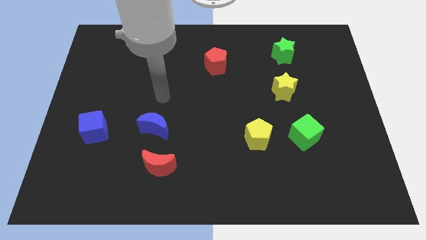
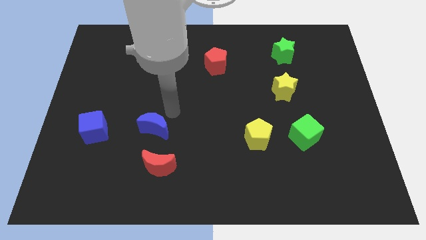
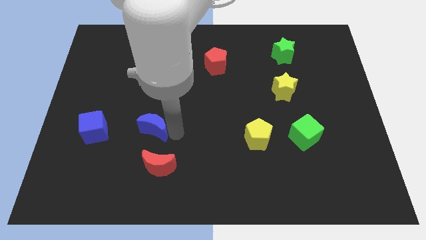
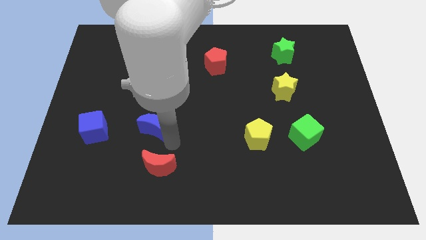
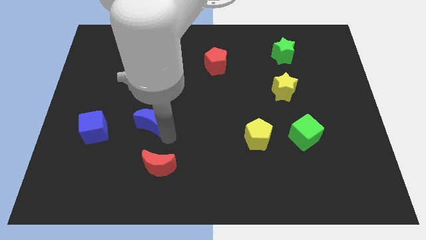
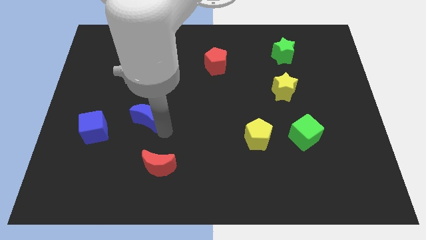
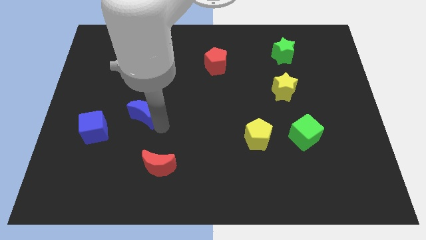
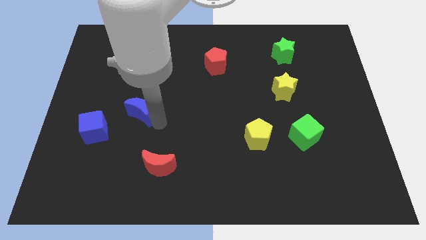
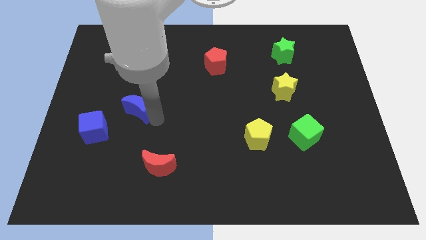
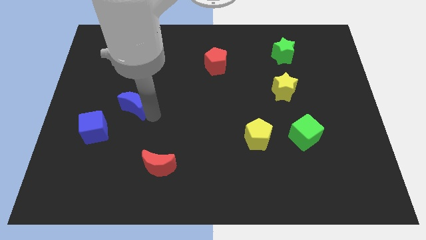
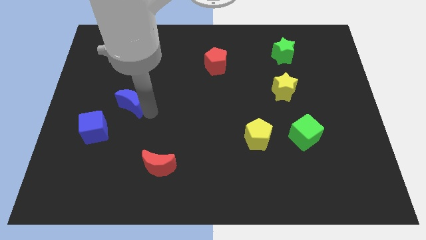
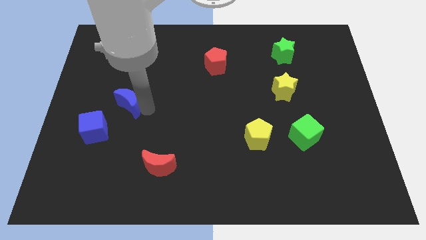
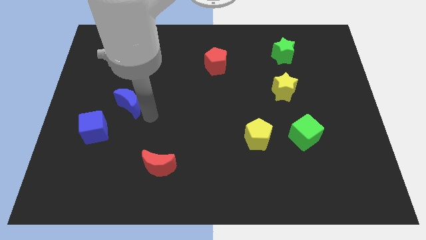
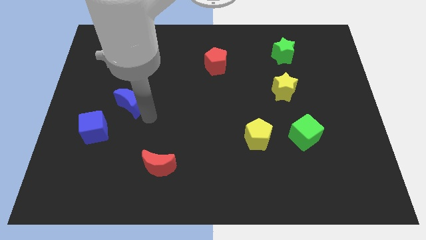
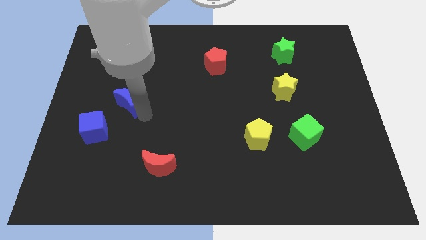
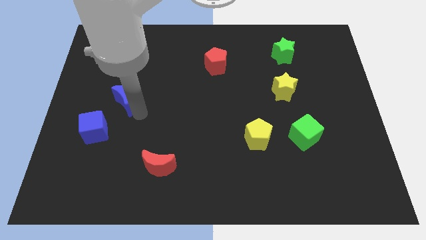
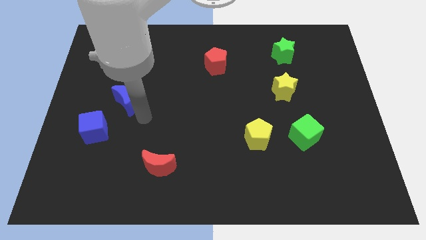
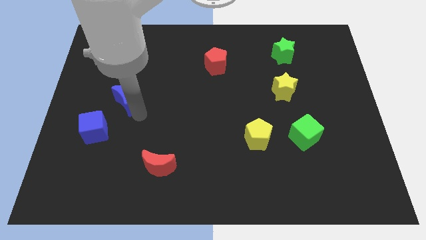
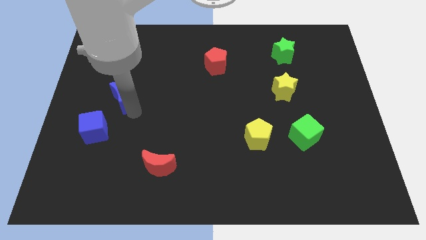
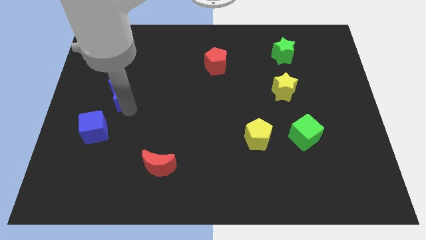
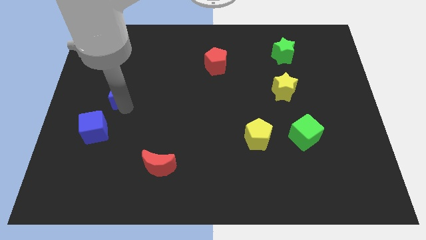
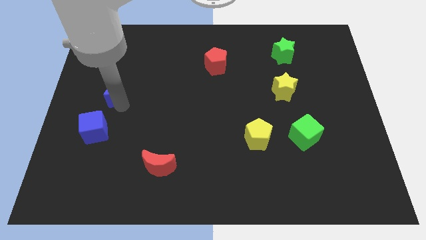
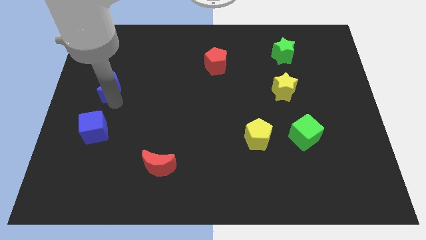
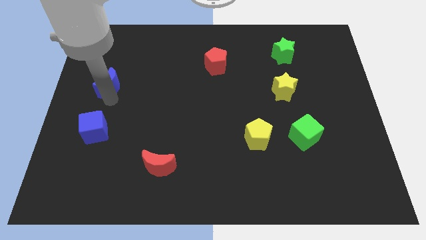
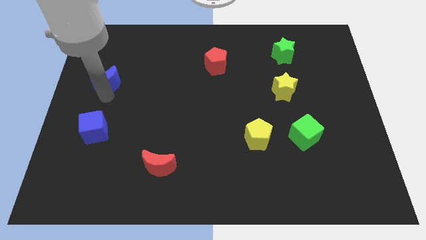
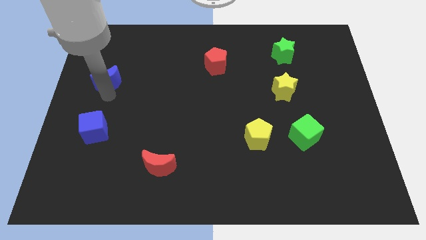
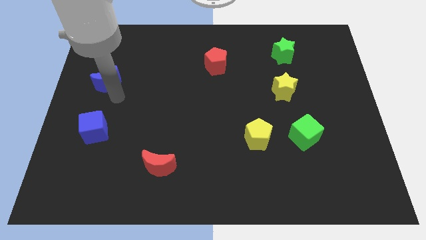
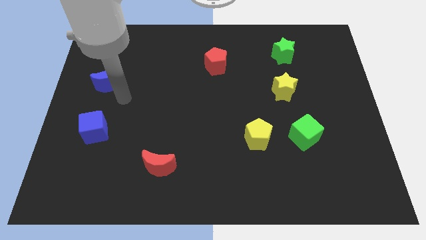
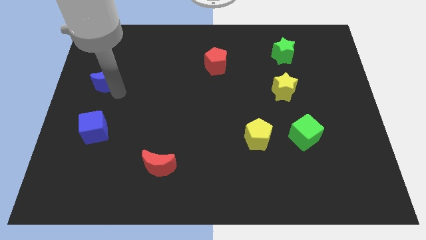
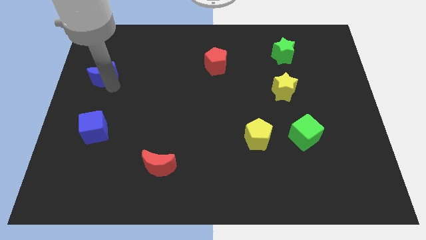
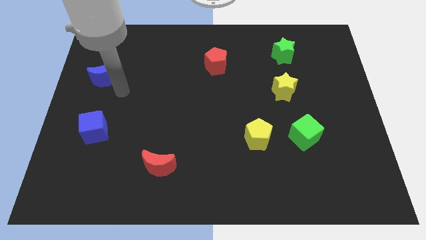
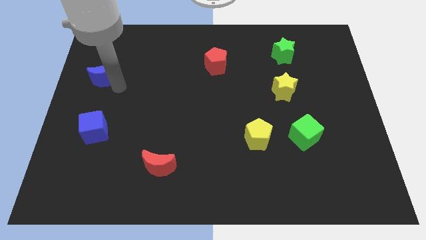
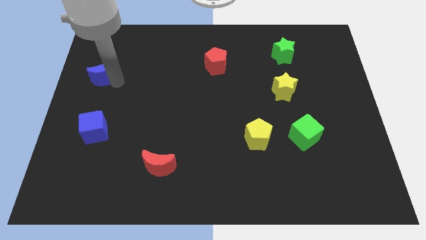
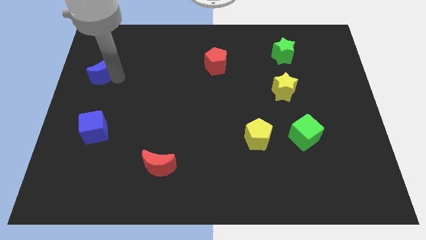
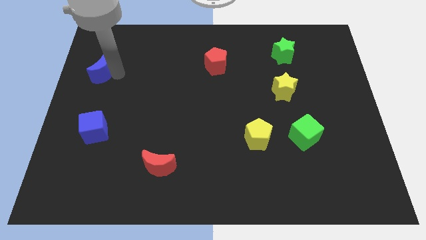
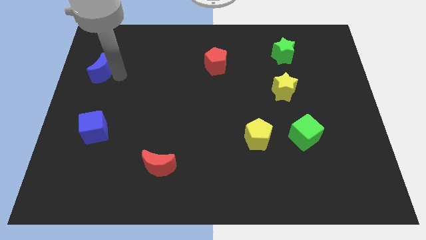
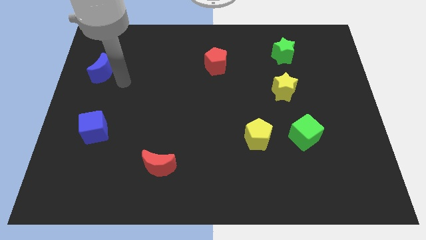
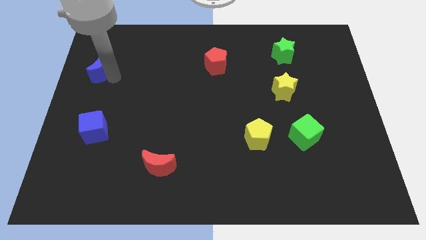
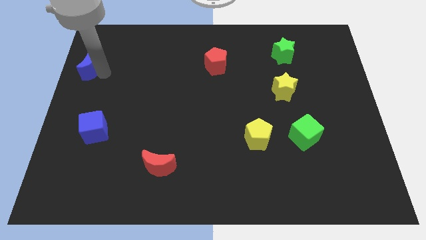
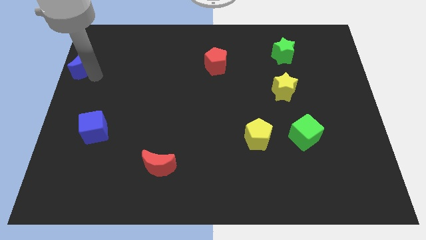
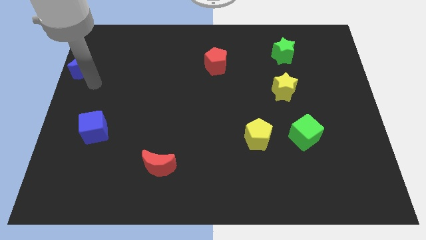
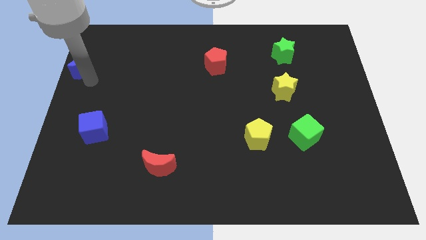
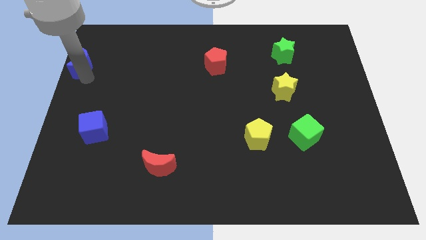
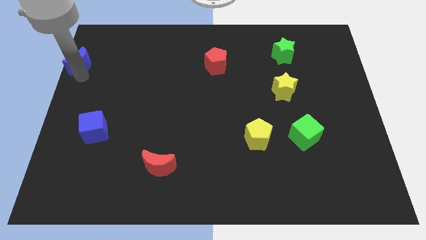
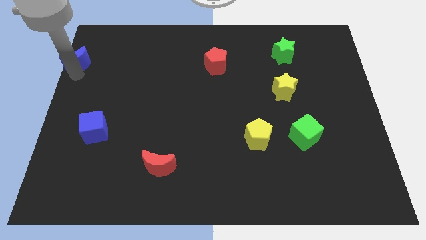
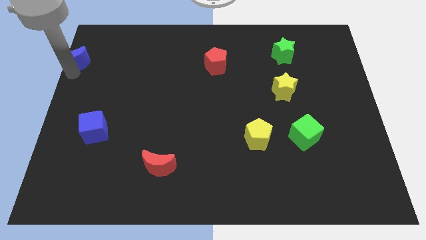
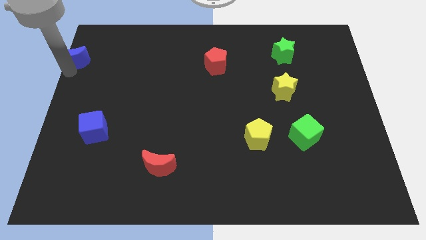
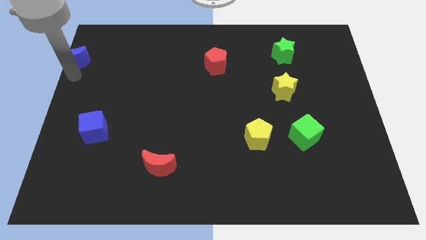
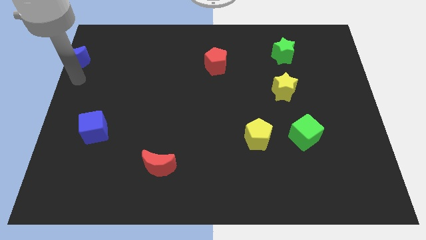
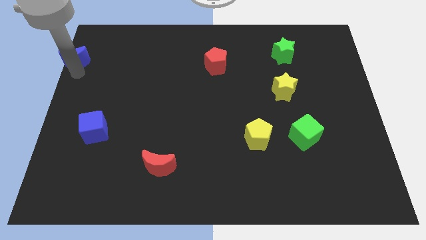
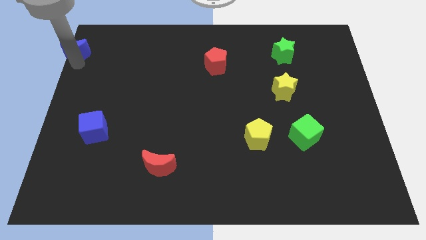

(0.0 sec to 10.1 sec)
put the blue moon to the upper left corner
